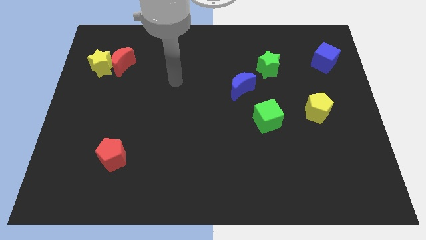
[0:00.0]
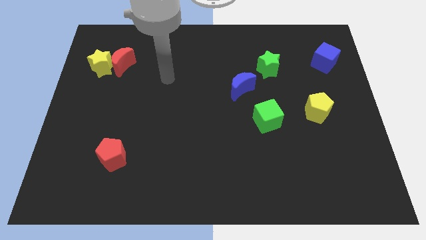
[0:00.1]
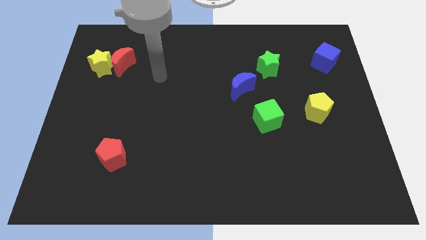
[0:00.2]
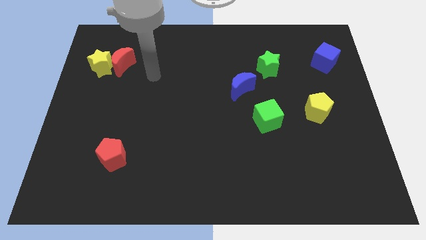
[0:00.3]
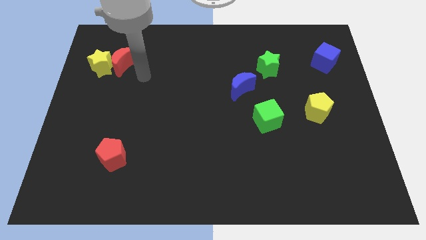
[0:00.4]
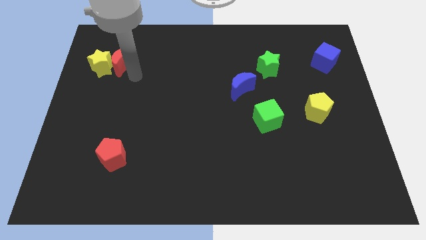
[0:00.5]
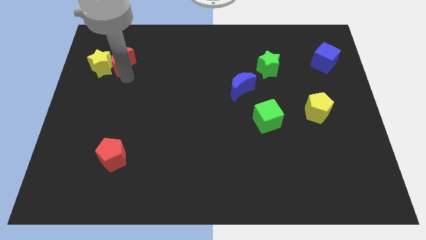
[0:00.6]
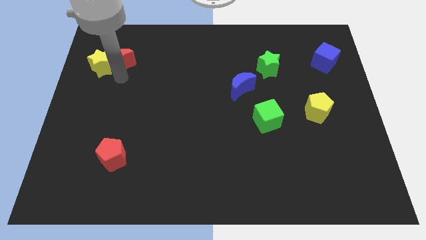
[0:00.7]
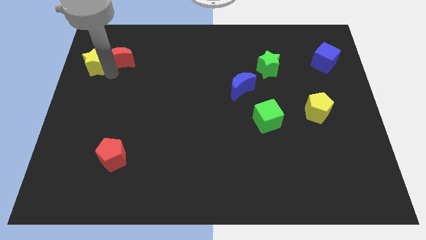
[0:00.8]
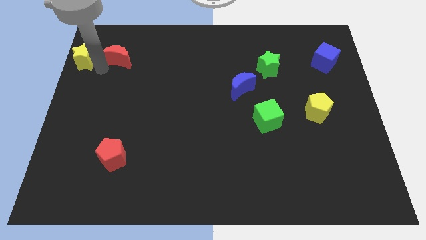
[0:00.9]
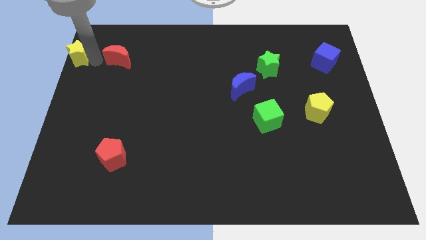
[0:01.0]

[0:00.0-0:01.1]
separate the red moon from the yellow star

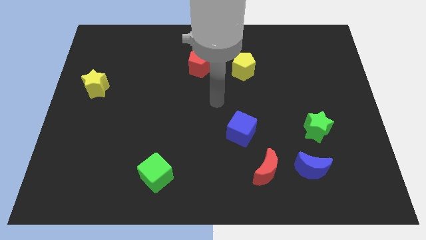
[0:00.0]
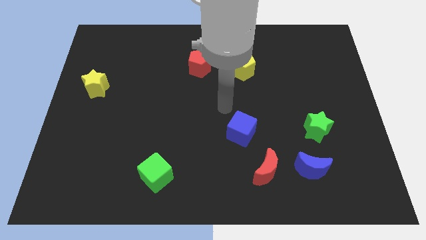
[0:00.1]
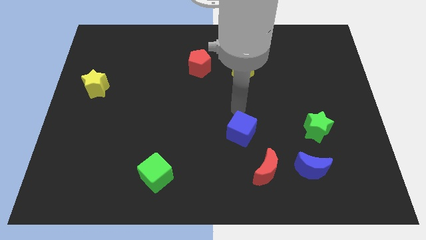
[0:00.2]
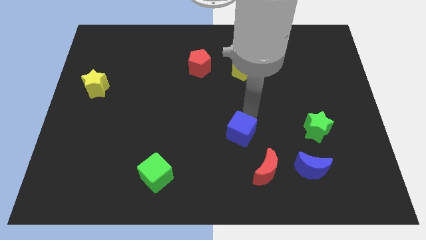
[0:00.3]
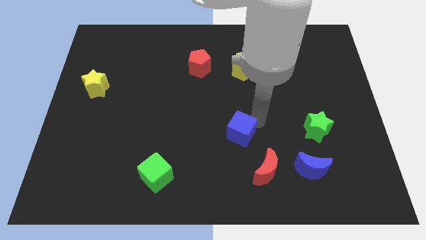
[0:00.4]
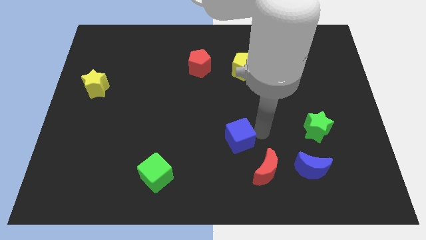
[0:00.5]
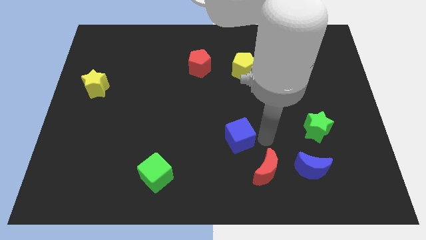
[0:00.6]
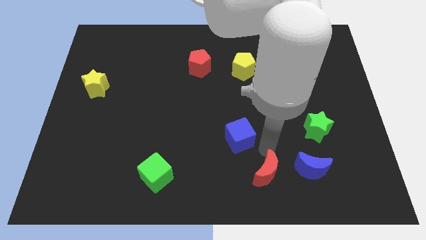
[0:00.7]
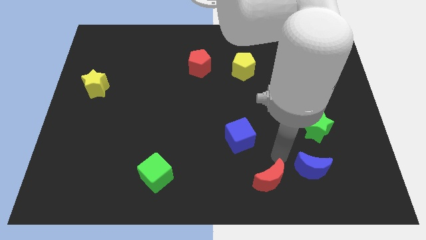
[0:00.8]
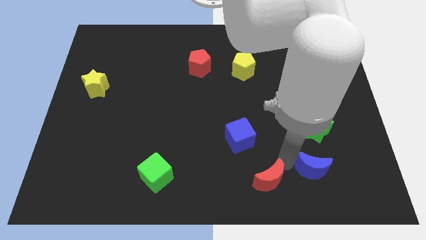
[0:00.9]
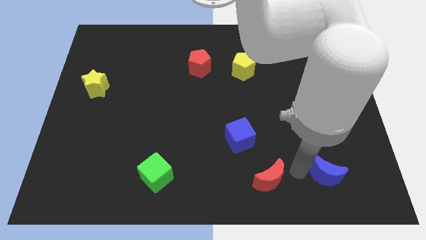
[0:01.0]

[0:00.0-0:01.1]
separate the red moon from the blue moon

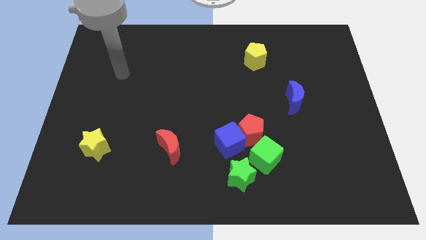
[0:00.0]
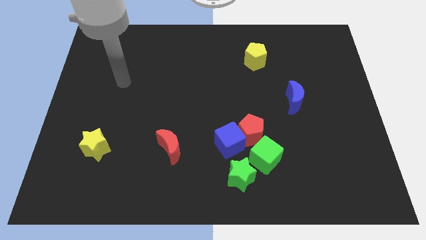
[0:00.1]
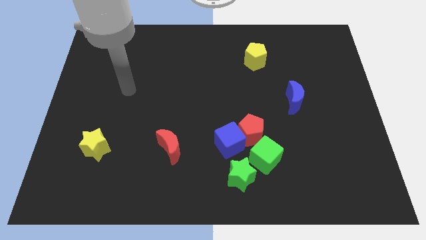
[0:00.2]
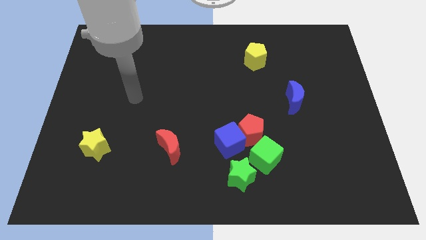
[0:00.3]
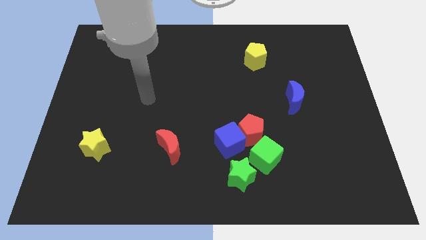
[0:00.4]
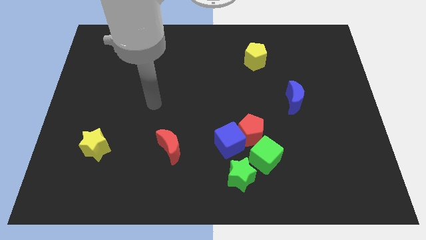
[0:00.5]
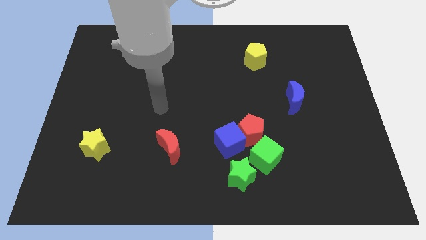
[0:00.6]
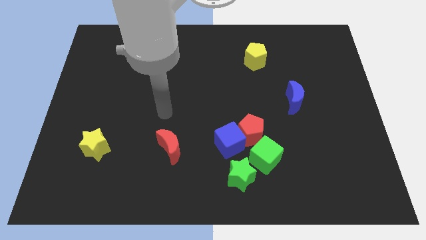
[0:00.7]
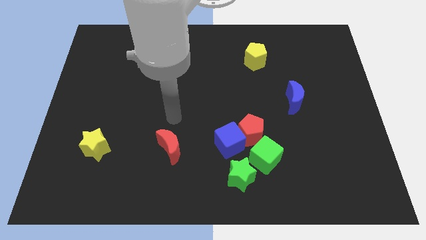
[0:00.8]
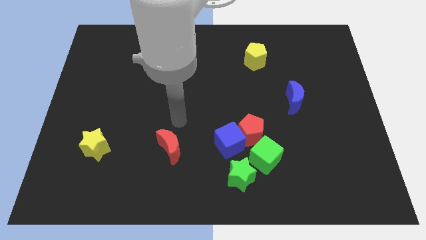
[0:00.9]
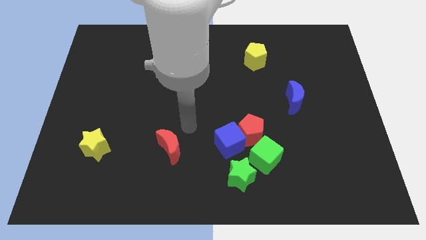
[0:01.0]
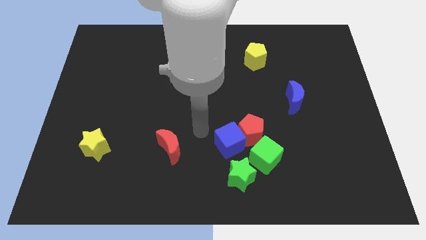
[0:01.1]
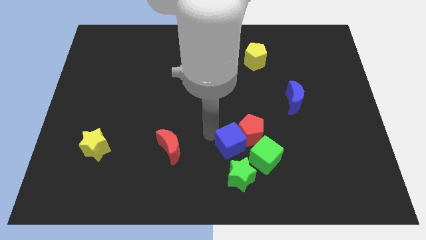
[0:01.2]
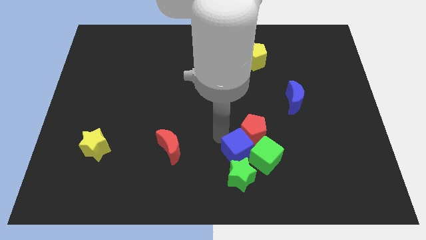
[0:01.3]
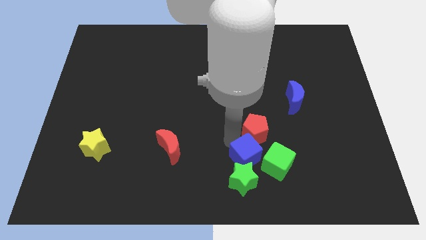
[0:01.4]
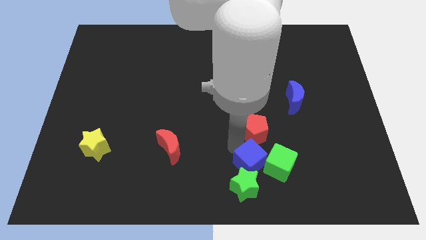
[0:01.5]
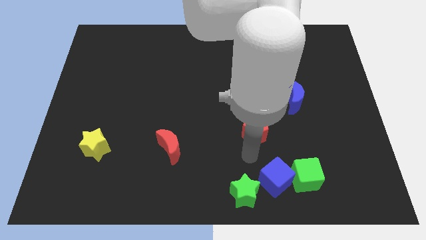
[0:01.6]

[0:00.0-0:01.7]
move the red pentagon away from the blue cube and green cube

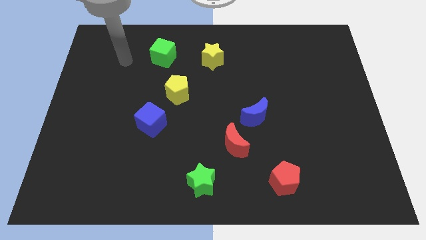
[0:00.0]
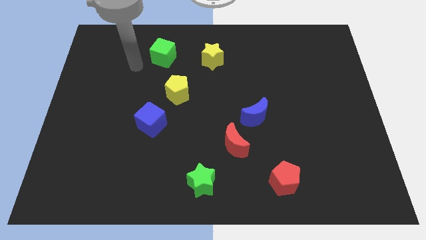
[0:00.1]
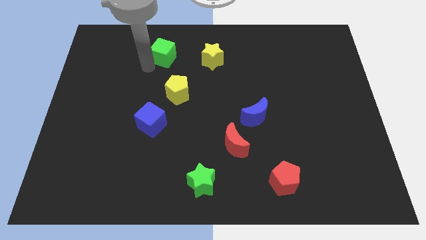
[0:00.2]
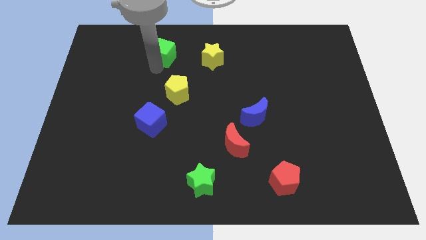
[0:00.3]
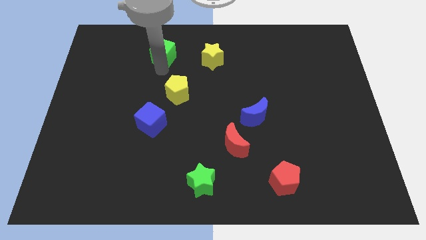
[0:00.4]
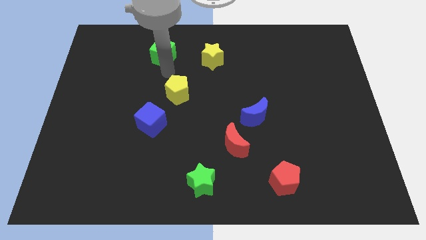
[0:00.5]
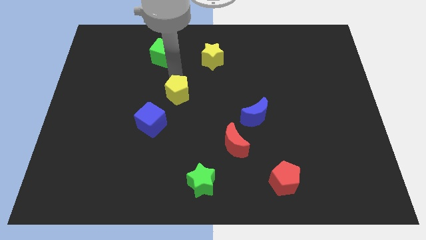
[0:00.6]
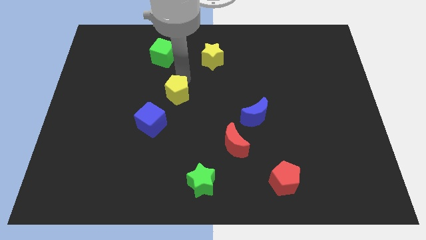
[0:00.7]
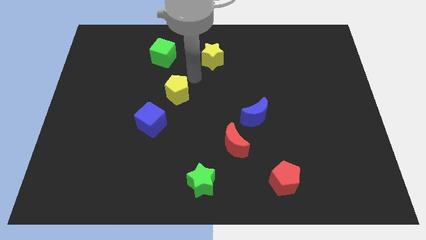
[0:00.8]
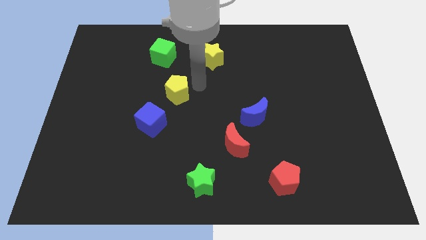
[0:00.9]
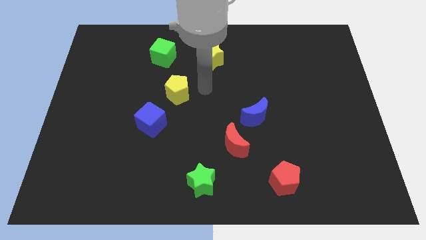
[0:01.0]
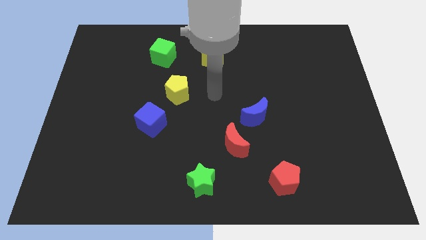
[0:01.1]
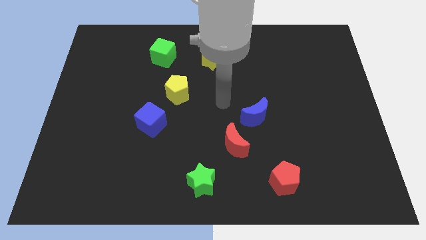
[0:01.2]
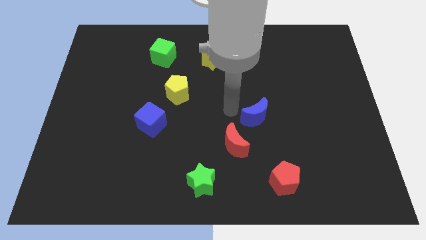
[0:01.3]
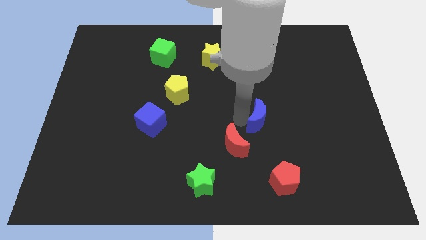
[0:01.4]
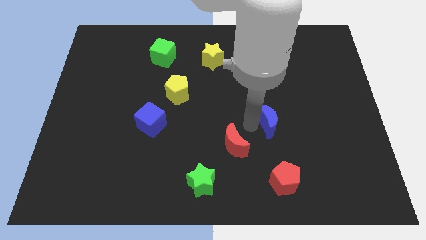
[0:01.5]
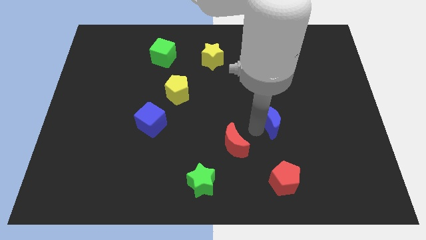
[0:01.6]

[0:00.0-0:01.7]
pull the red moon apart from the blue moon

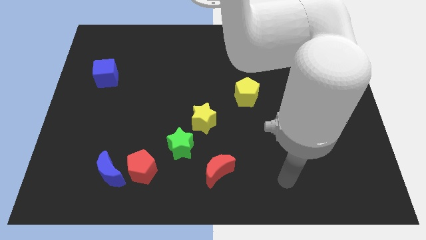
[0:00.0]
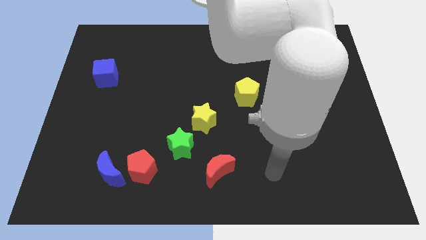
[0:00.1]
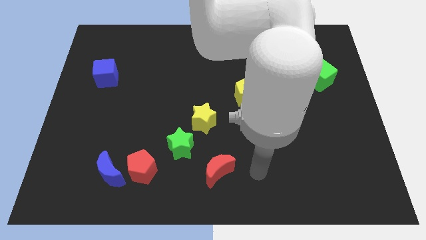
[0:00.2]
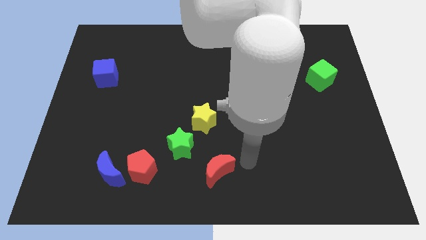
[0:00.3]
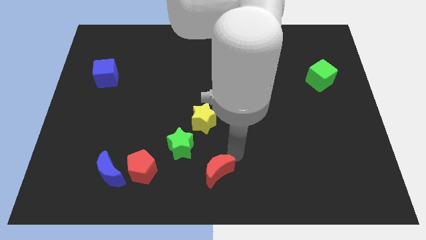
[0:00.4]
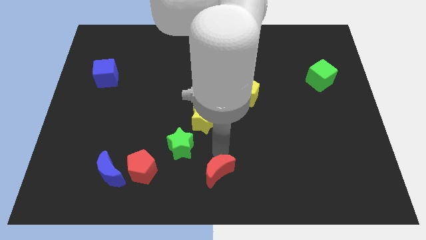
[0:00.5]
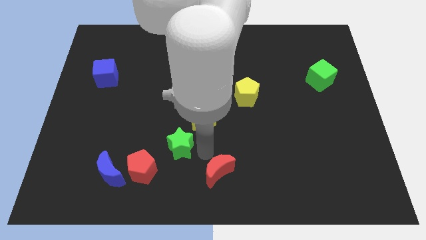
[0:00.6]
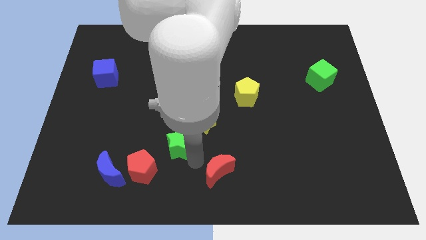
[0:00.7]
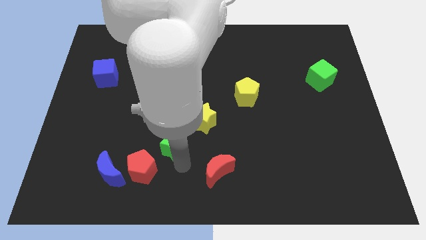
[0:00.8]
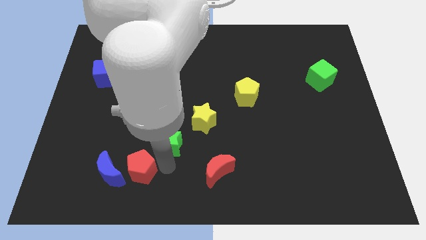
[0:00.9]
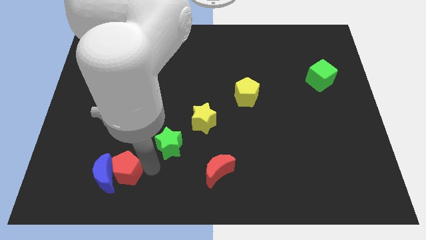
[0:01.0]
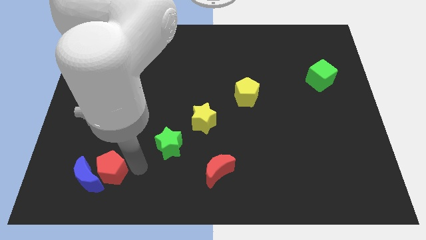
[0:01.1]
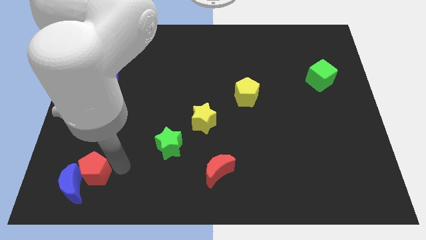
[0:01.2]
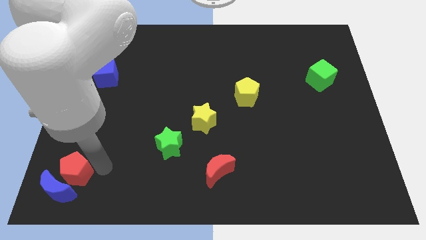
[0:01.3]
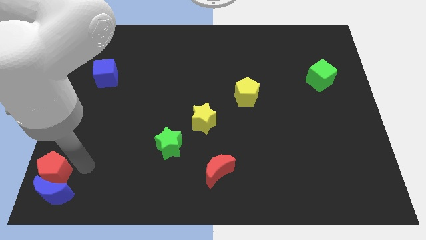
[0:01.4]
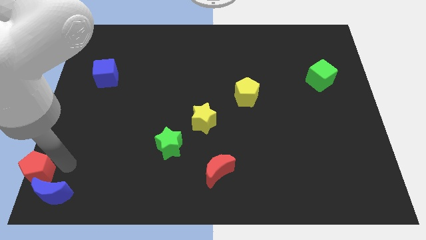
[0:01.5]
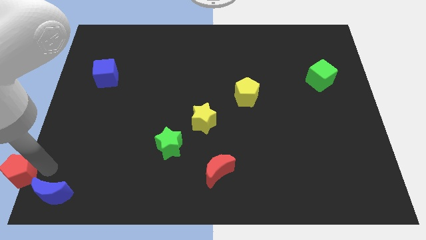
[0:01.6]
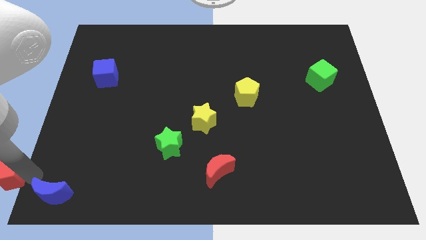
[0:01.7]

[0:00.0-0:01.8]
separate the blue moon from the red pentagon

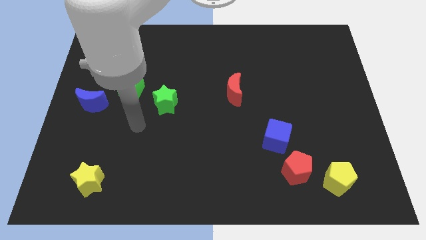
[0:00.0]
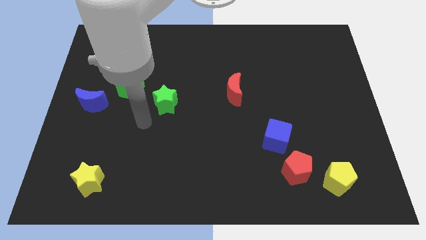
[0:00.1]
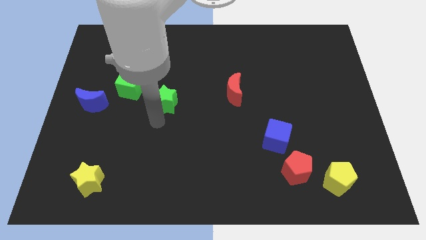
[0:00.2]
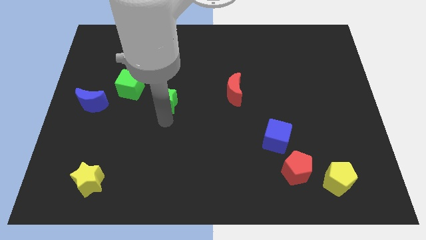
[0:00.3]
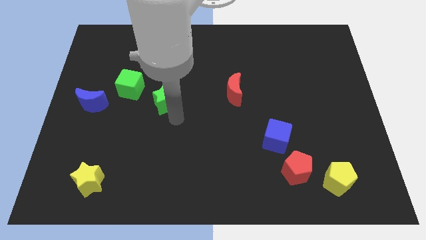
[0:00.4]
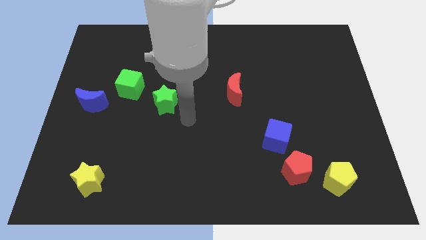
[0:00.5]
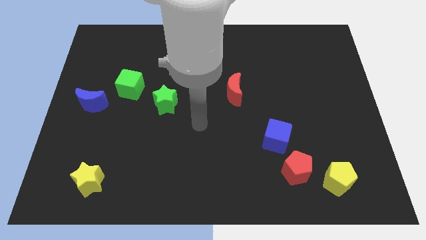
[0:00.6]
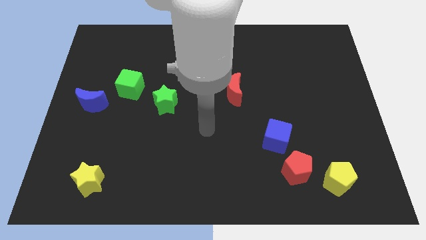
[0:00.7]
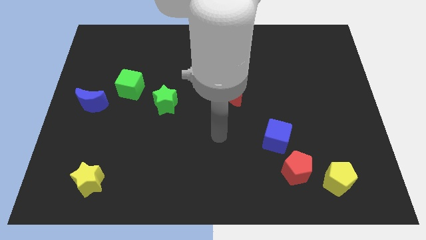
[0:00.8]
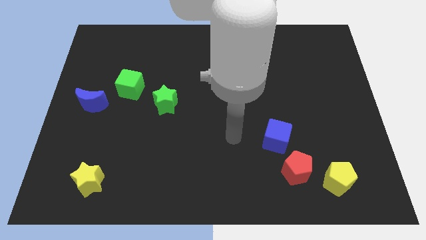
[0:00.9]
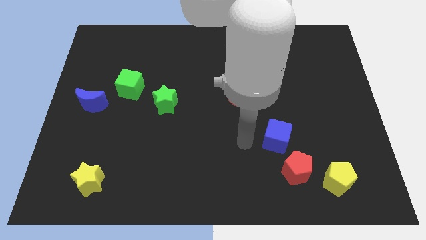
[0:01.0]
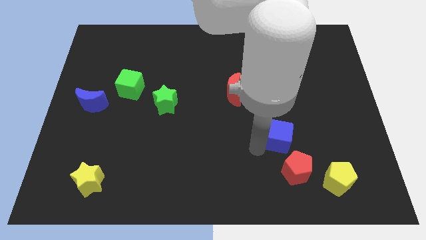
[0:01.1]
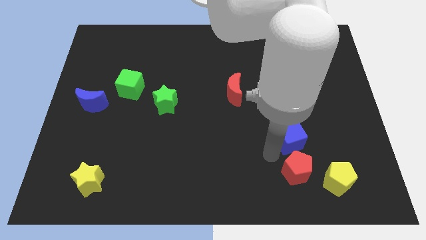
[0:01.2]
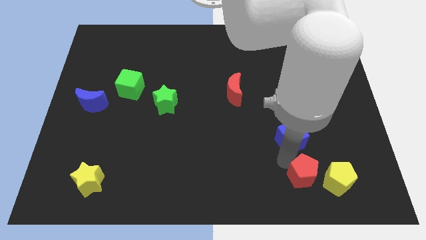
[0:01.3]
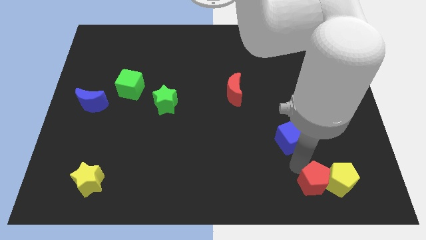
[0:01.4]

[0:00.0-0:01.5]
pull the blue cube apart from the red pentagon

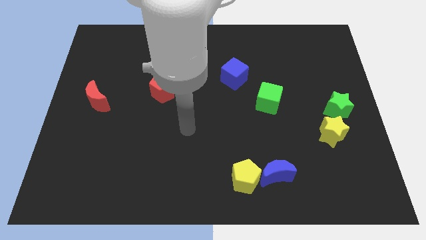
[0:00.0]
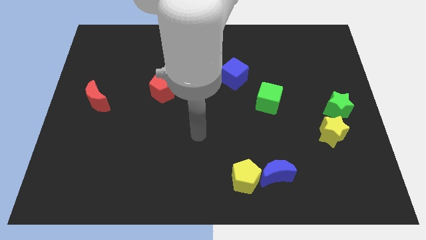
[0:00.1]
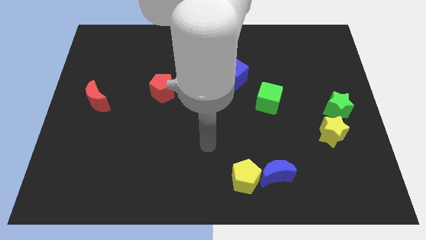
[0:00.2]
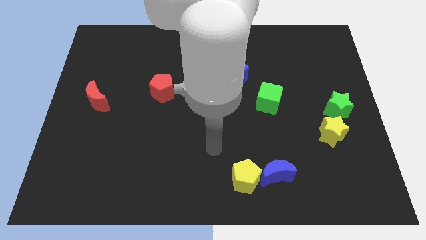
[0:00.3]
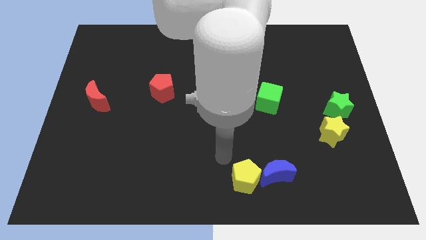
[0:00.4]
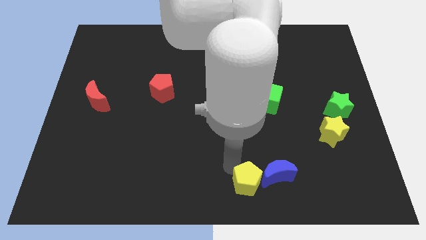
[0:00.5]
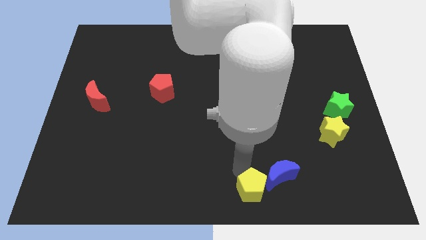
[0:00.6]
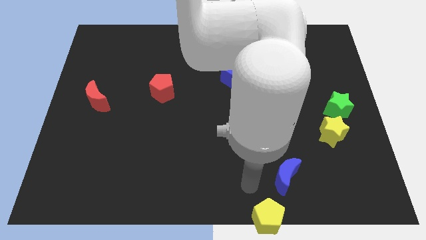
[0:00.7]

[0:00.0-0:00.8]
separate the blue moon from the yellow pentagon
